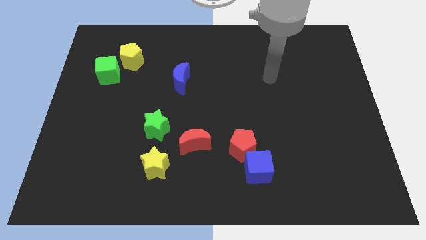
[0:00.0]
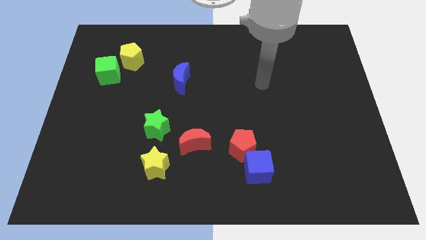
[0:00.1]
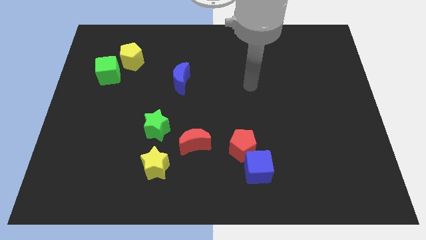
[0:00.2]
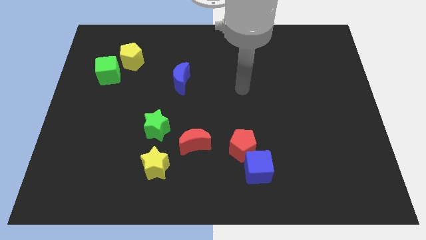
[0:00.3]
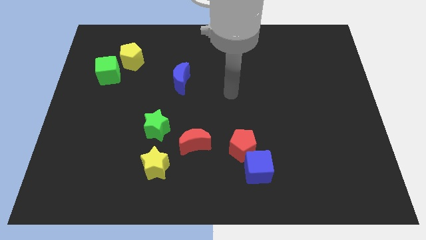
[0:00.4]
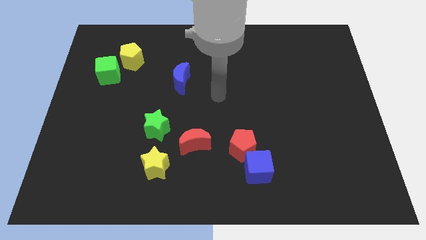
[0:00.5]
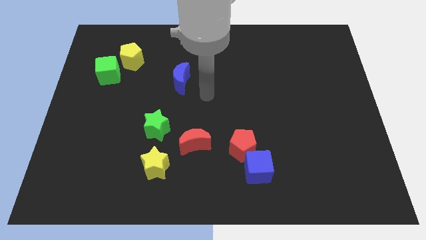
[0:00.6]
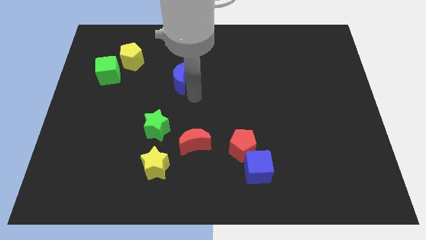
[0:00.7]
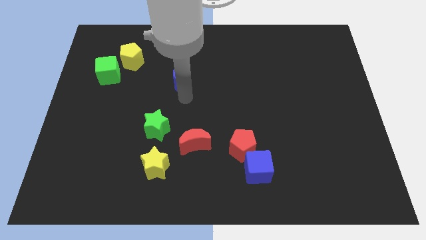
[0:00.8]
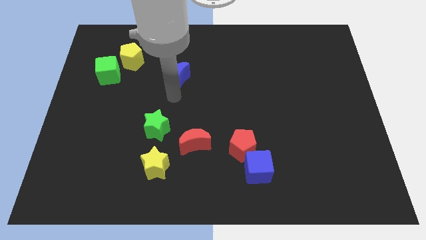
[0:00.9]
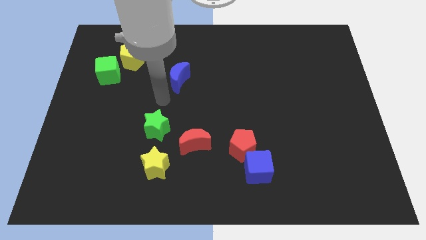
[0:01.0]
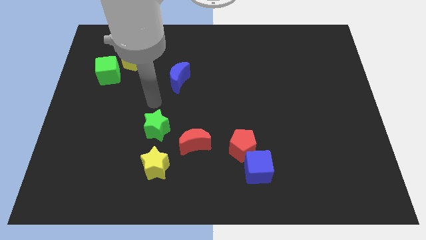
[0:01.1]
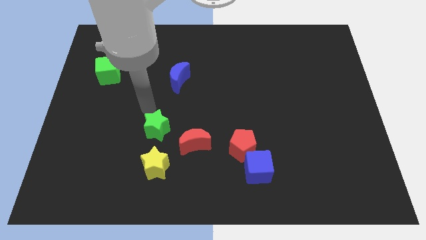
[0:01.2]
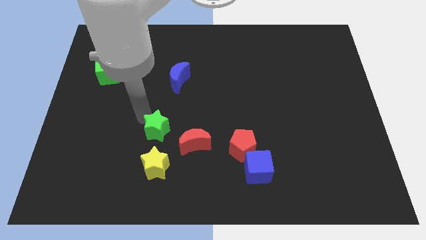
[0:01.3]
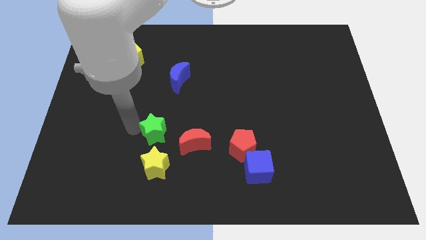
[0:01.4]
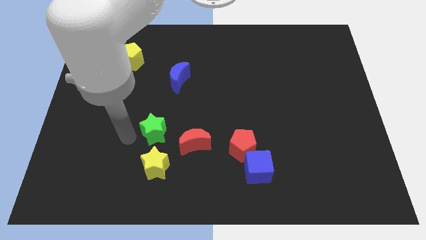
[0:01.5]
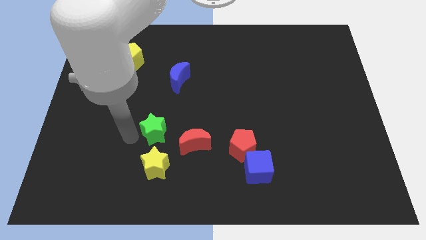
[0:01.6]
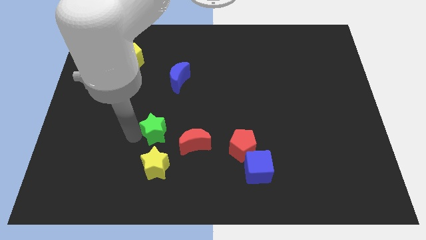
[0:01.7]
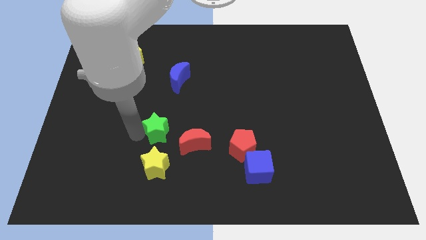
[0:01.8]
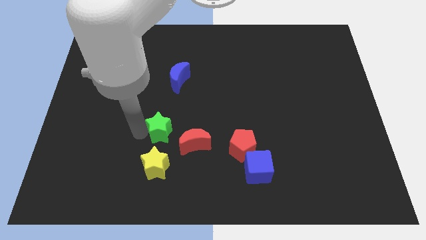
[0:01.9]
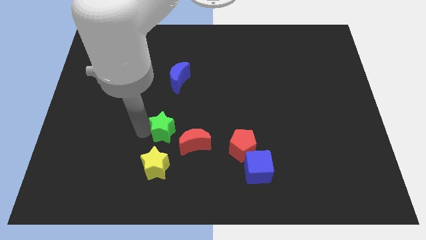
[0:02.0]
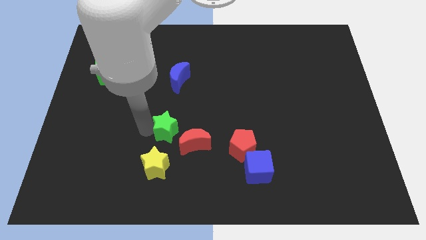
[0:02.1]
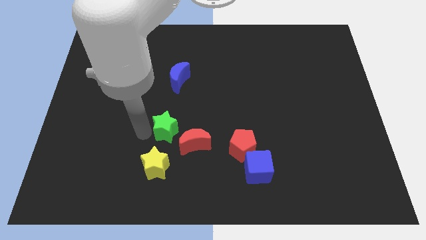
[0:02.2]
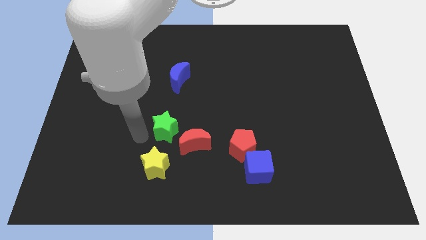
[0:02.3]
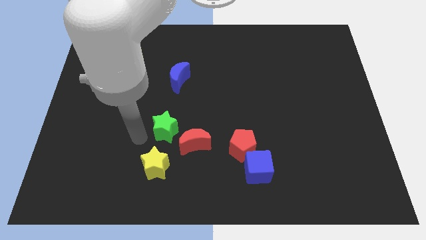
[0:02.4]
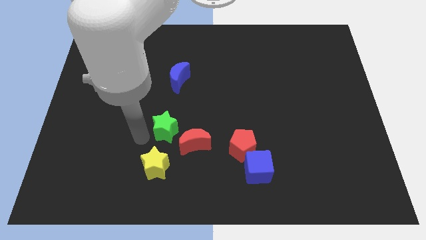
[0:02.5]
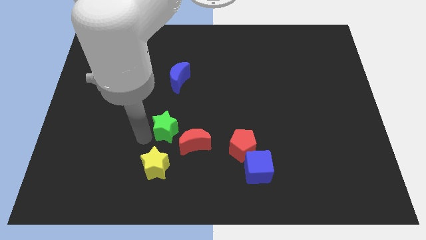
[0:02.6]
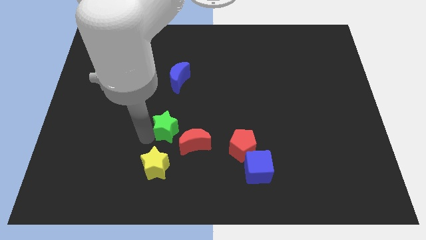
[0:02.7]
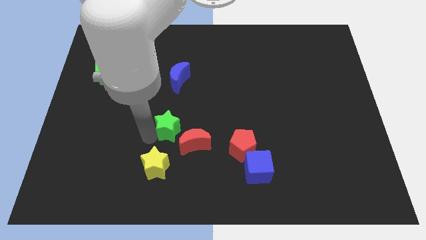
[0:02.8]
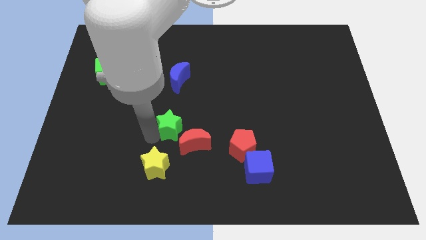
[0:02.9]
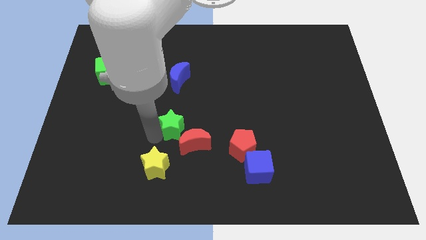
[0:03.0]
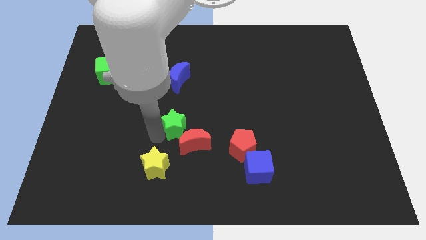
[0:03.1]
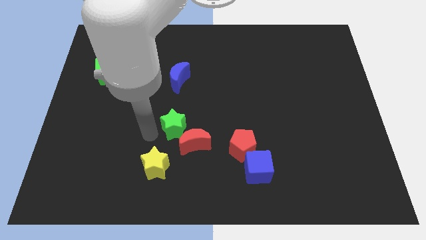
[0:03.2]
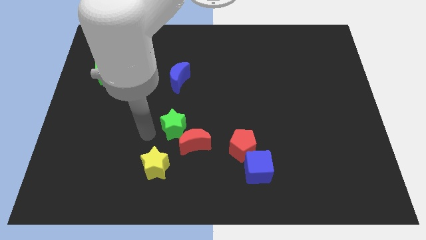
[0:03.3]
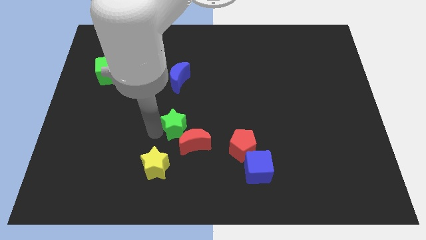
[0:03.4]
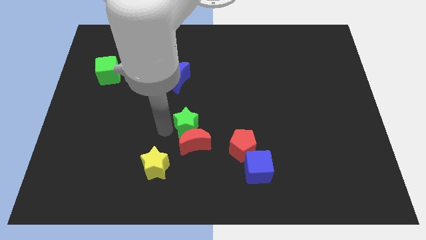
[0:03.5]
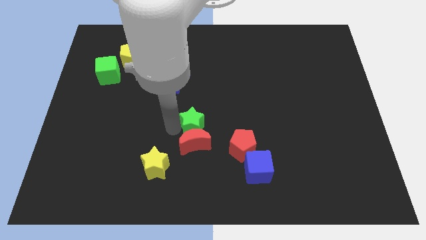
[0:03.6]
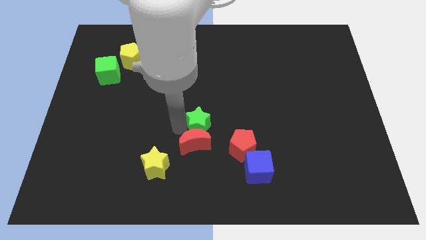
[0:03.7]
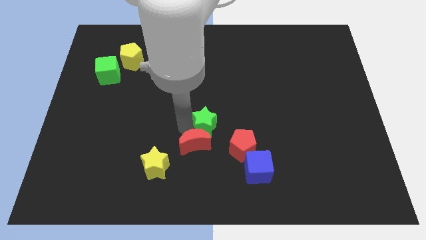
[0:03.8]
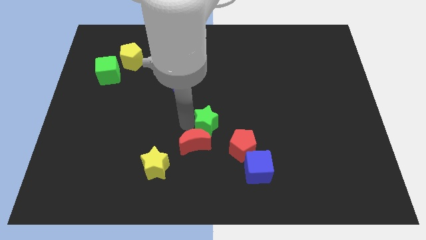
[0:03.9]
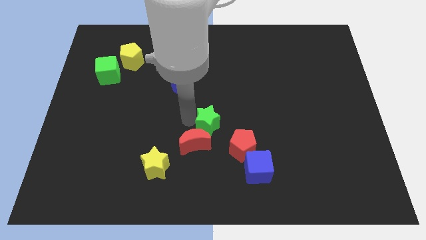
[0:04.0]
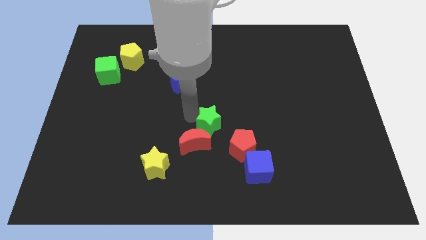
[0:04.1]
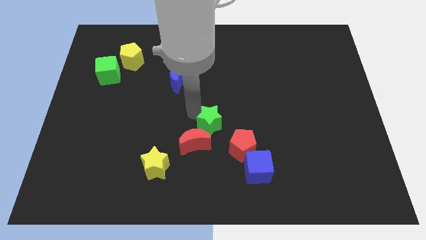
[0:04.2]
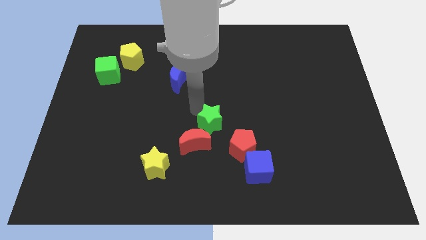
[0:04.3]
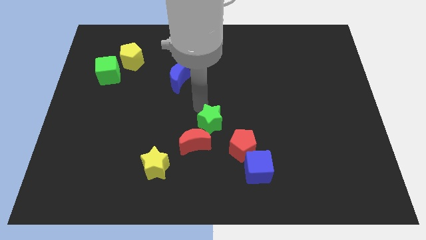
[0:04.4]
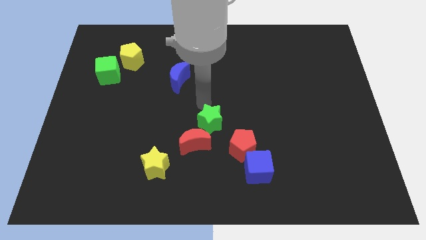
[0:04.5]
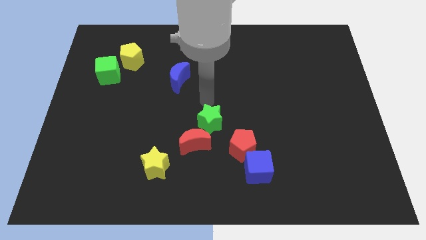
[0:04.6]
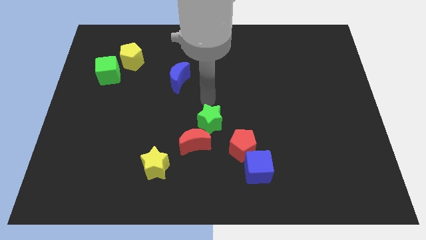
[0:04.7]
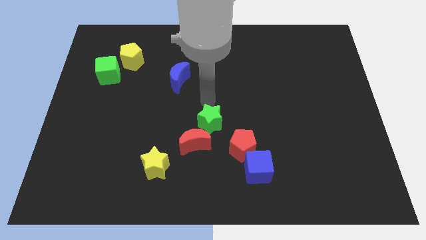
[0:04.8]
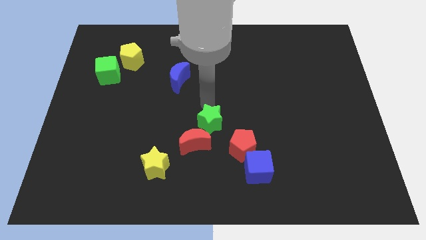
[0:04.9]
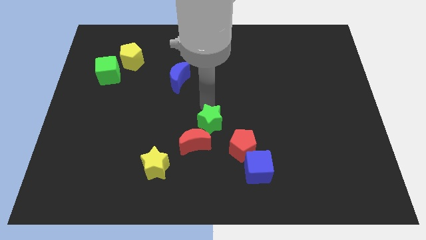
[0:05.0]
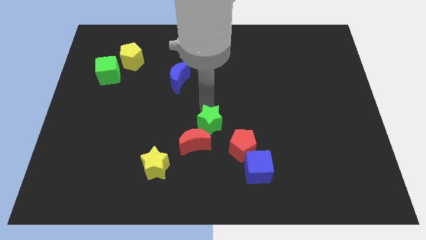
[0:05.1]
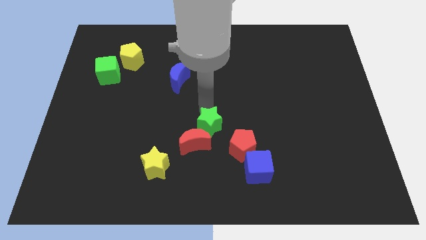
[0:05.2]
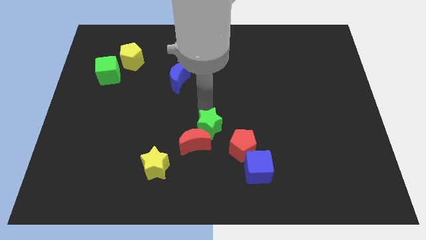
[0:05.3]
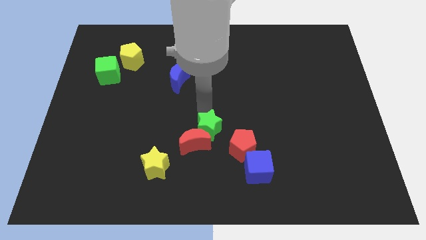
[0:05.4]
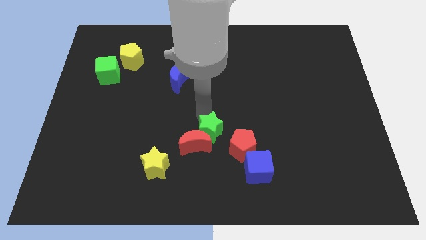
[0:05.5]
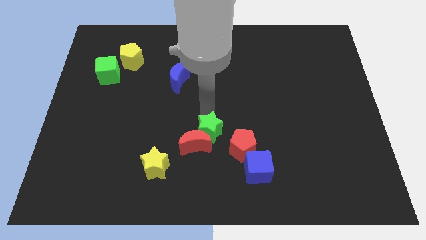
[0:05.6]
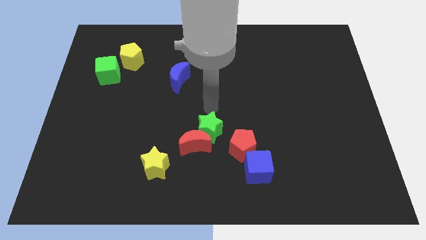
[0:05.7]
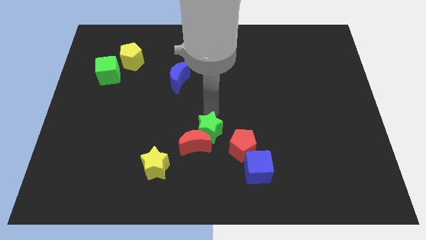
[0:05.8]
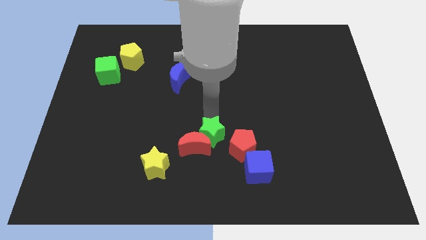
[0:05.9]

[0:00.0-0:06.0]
slightly slide the green star down and right diagonally

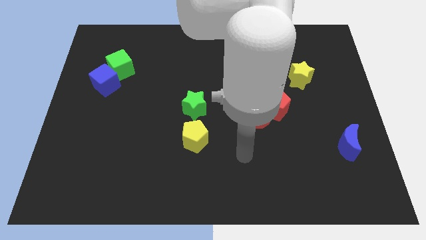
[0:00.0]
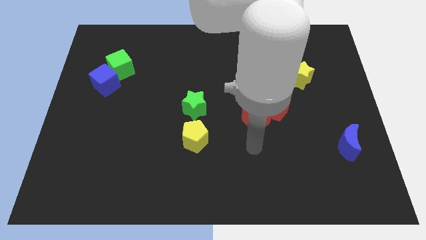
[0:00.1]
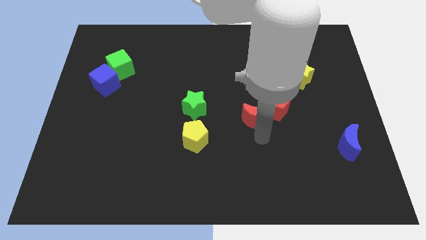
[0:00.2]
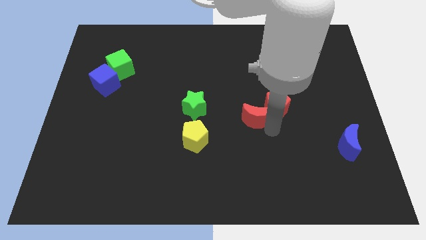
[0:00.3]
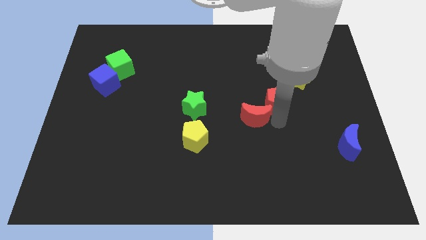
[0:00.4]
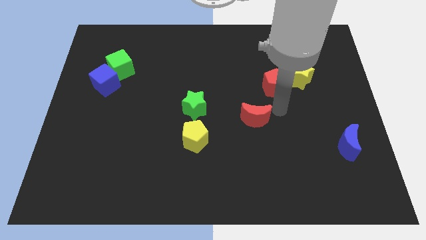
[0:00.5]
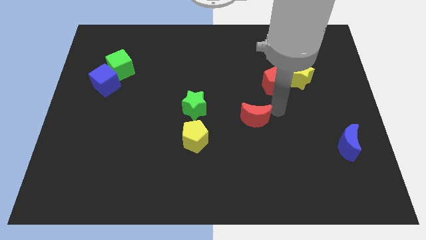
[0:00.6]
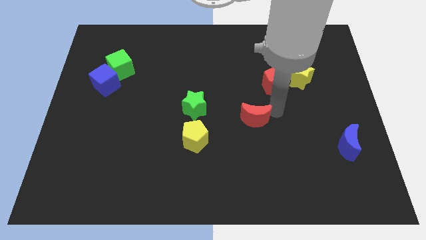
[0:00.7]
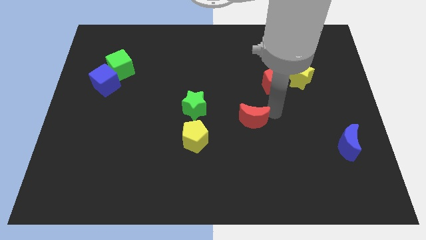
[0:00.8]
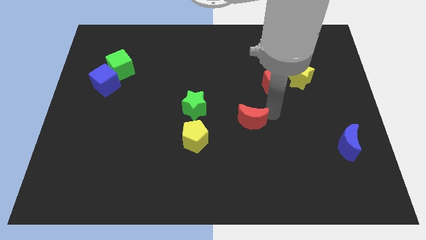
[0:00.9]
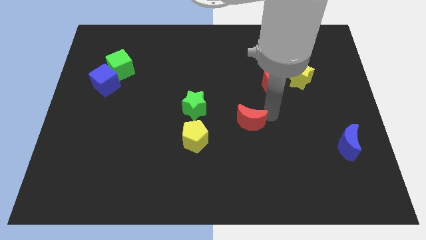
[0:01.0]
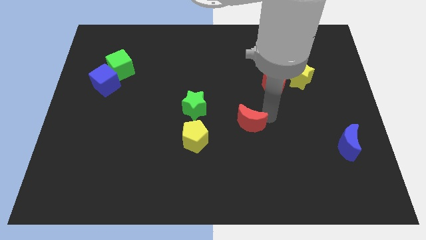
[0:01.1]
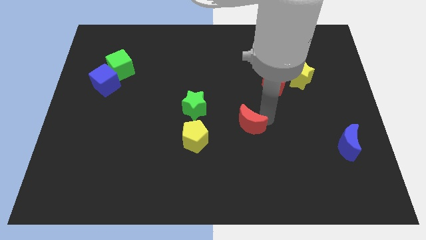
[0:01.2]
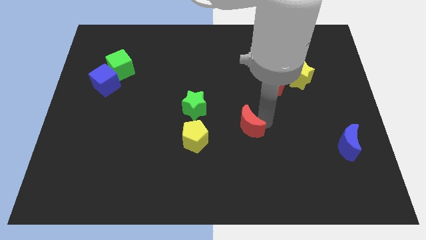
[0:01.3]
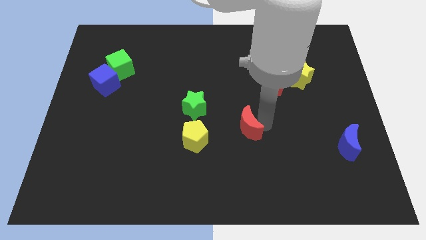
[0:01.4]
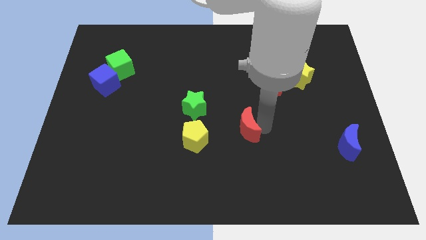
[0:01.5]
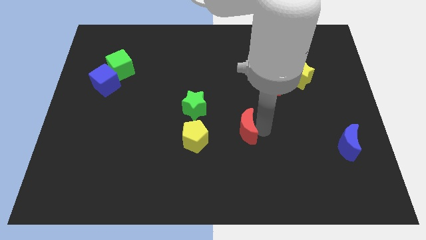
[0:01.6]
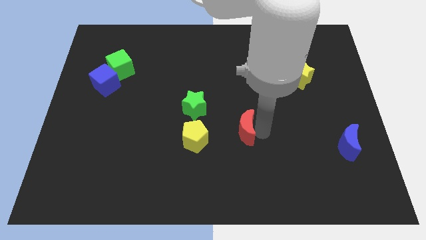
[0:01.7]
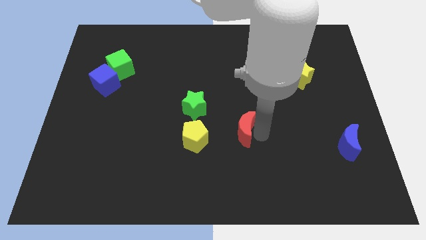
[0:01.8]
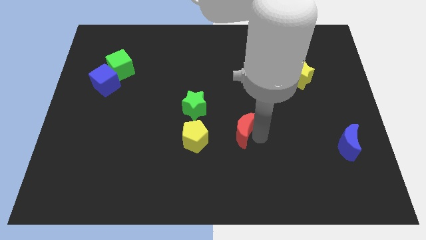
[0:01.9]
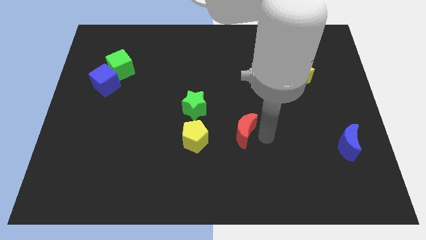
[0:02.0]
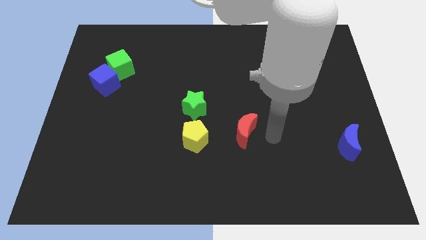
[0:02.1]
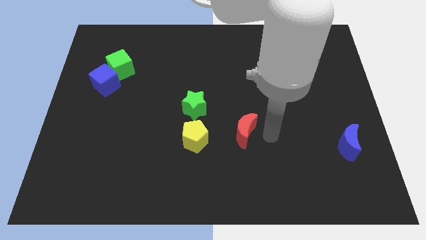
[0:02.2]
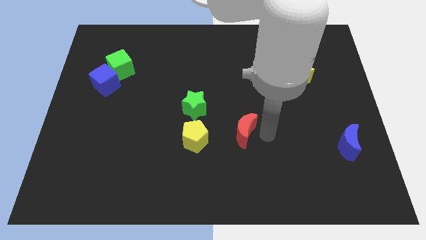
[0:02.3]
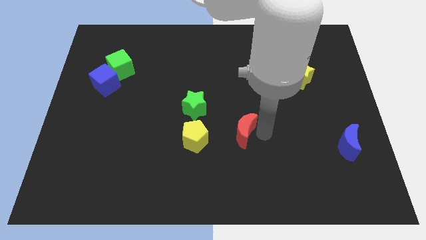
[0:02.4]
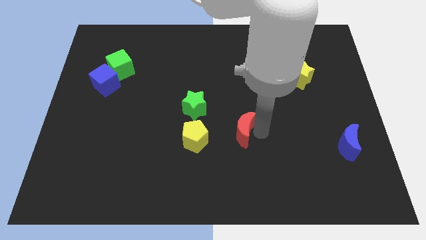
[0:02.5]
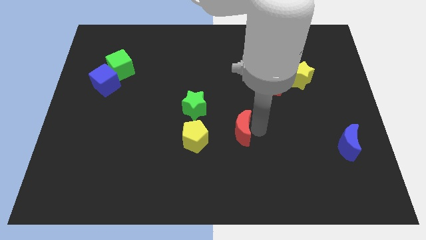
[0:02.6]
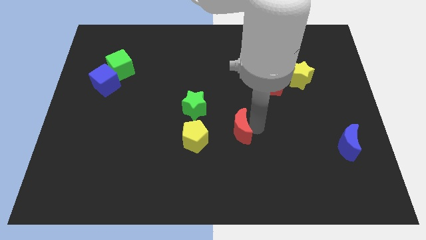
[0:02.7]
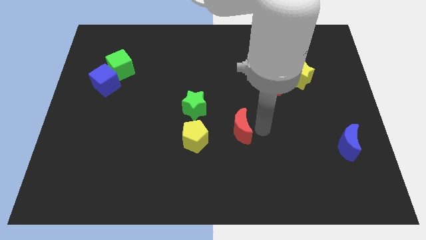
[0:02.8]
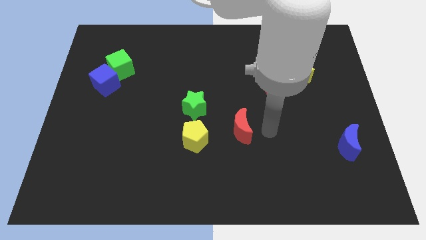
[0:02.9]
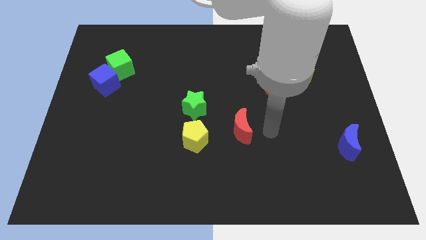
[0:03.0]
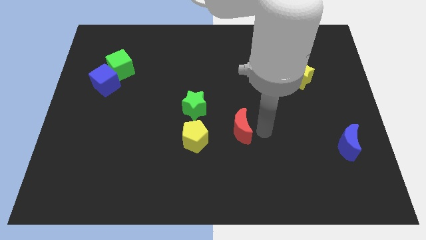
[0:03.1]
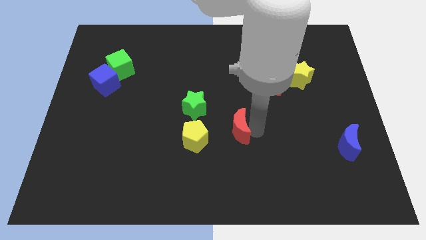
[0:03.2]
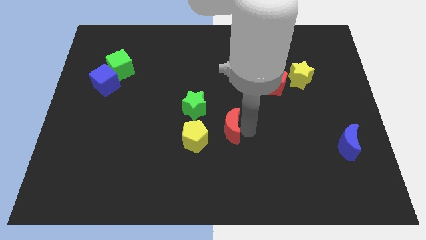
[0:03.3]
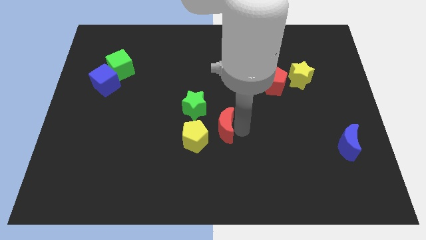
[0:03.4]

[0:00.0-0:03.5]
slide the red moon a little bit left
